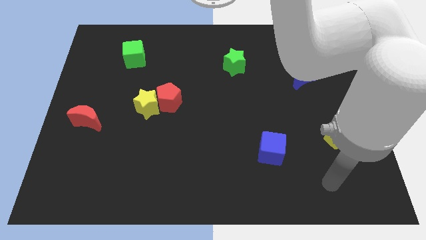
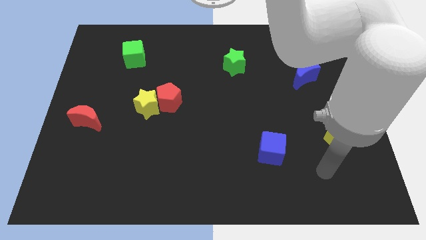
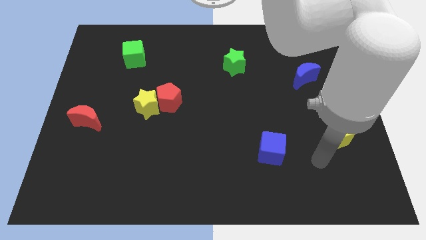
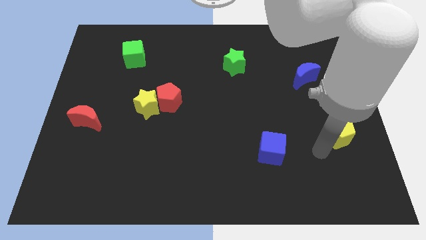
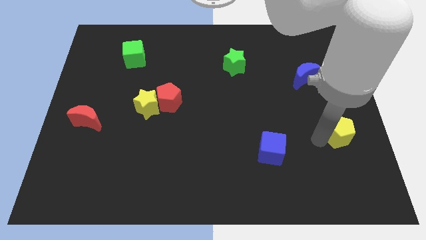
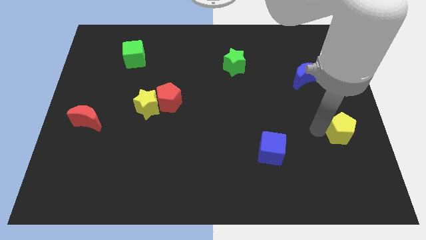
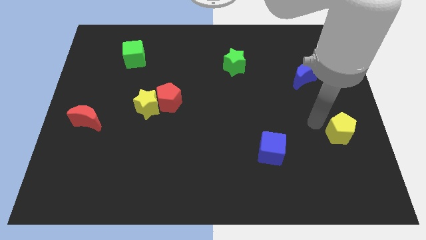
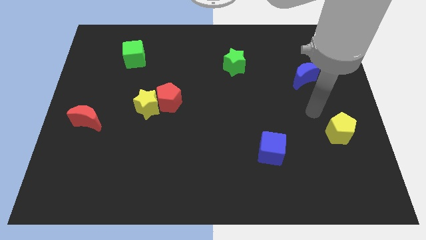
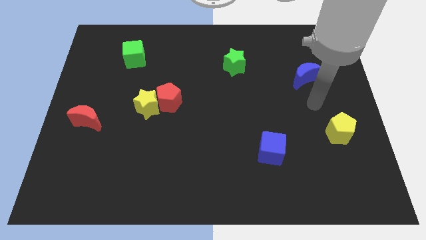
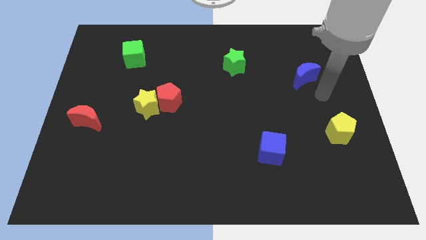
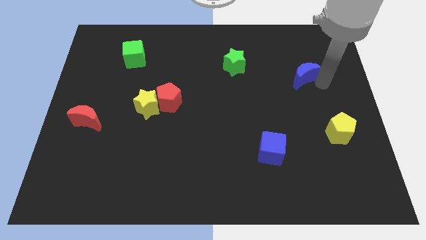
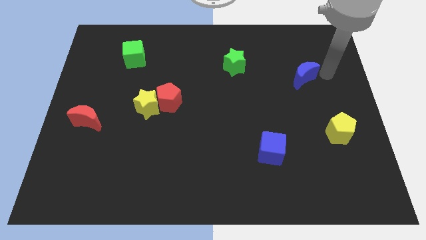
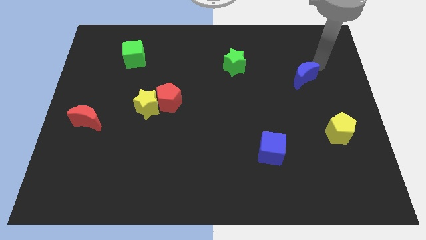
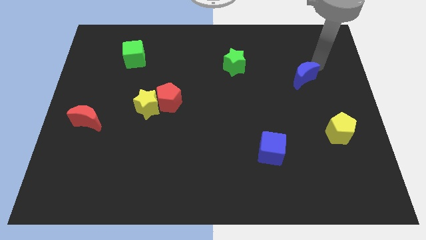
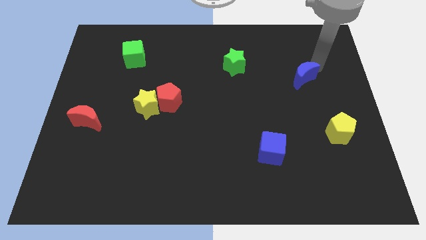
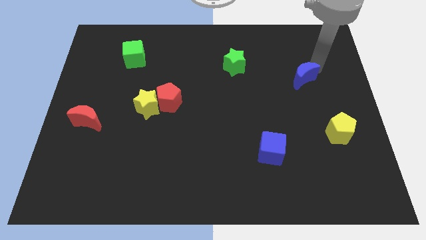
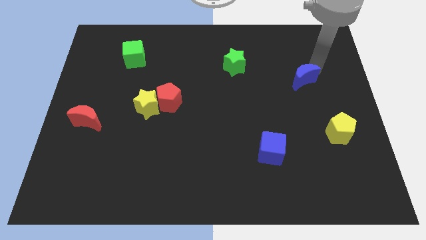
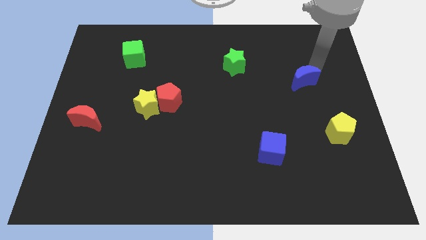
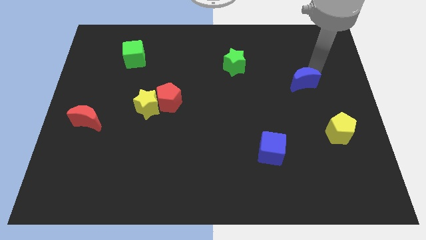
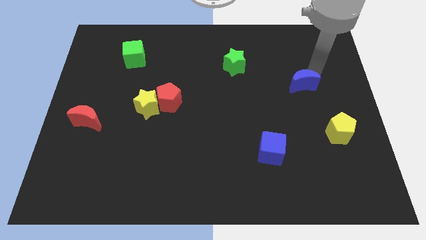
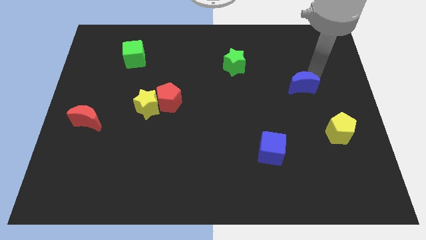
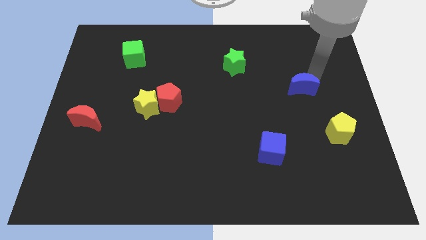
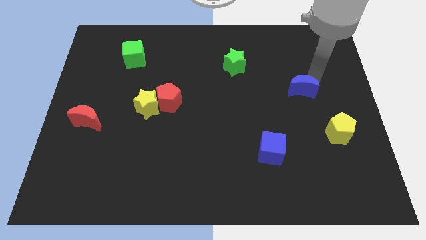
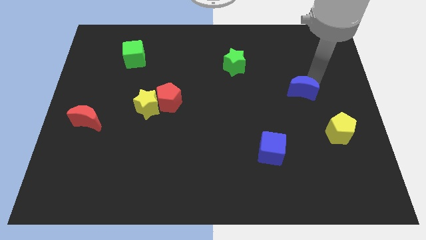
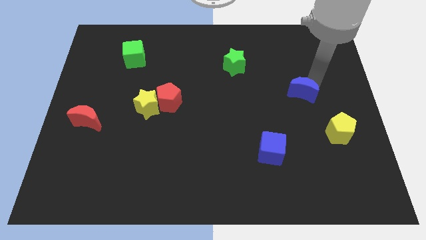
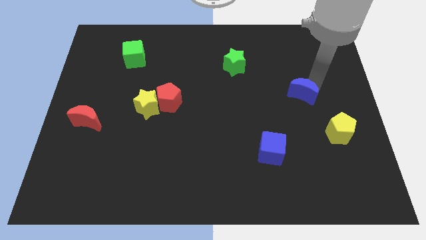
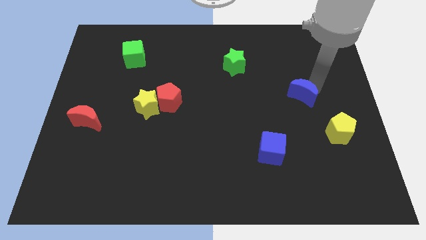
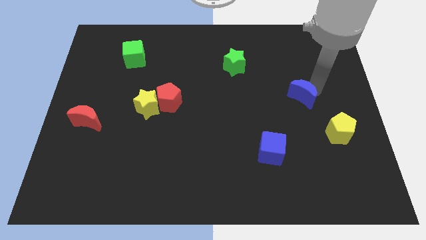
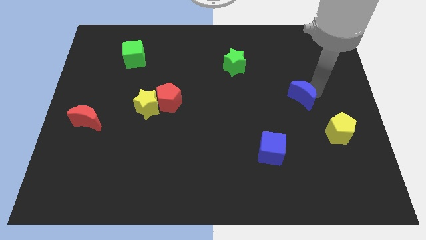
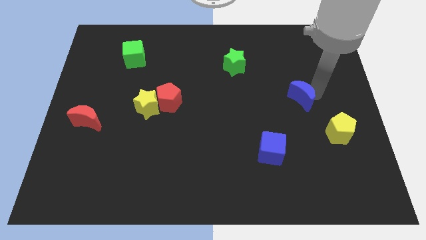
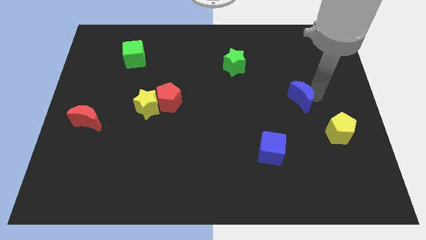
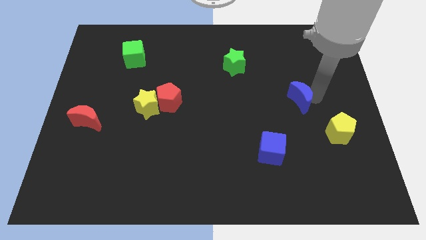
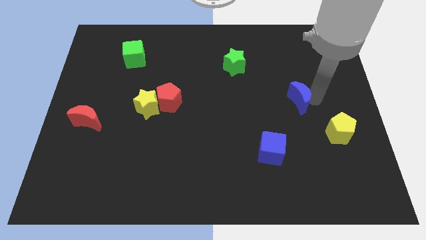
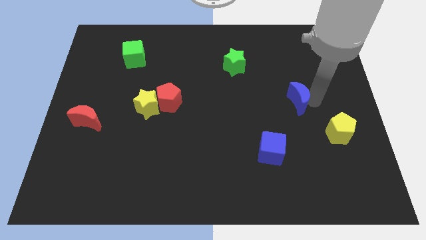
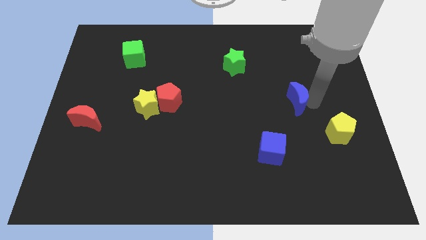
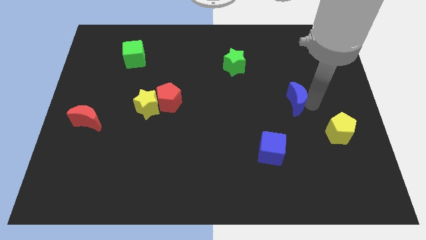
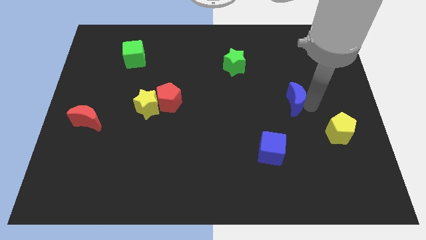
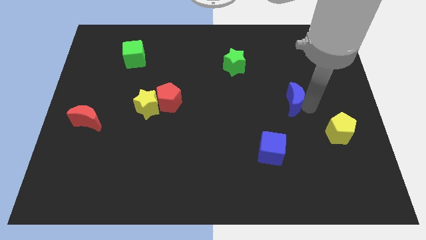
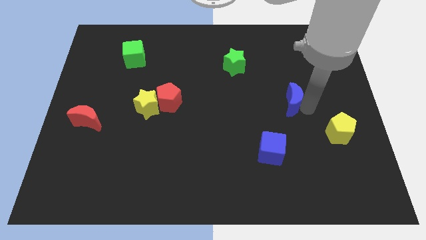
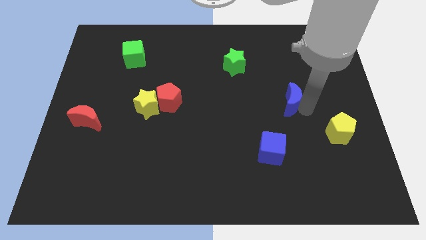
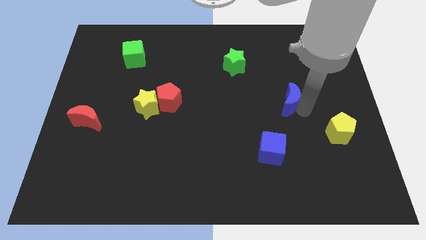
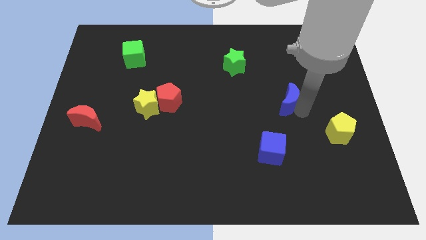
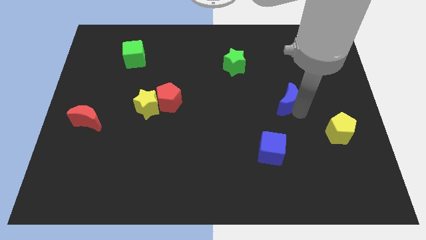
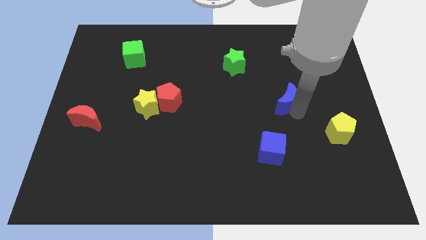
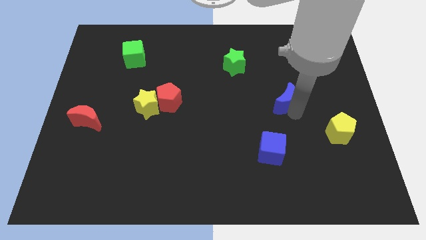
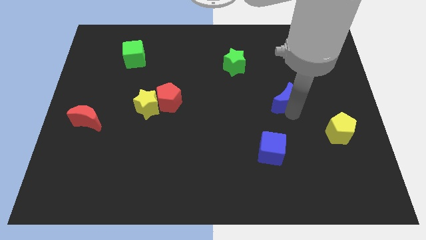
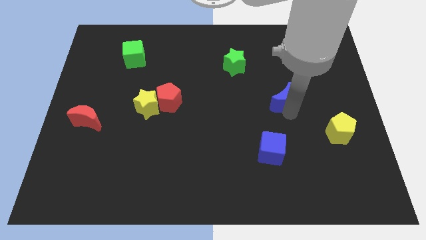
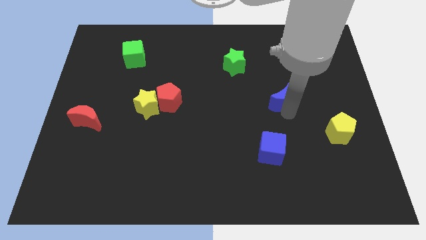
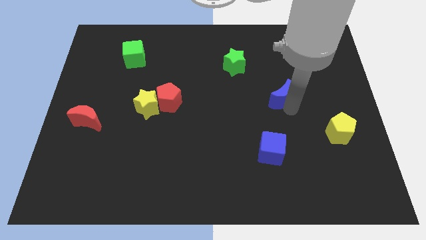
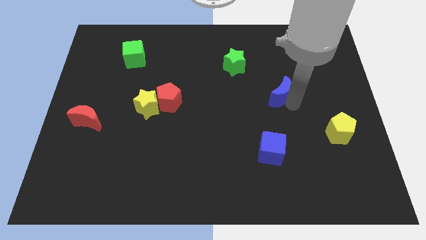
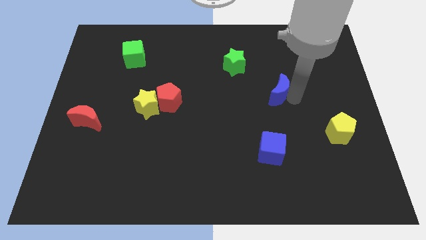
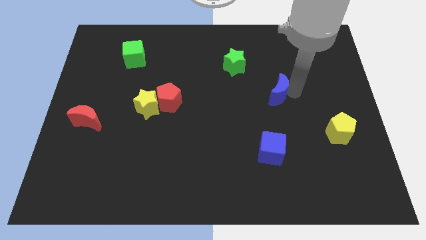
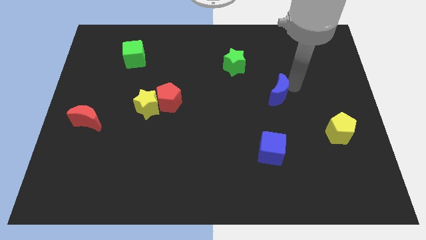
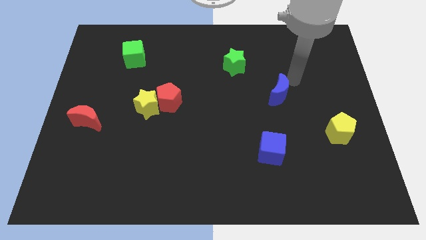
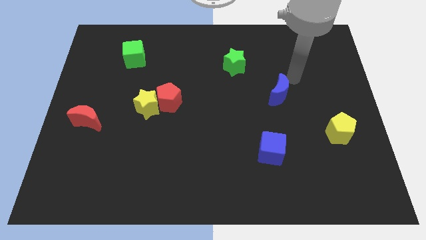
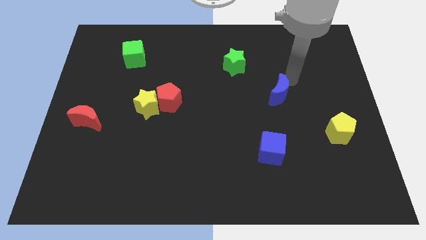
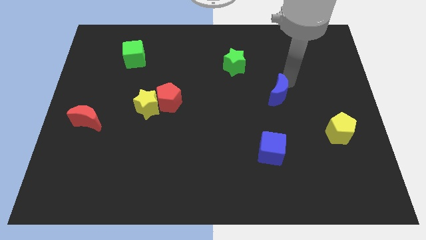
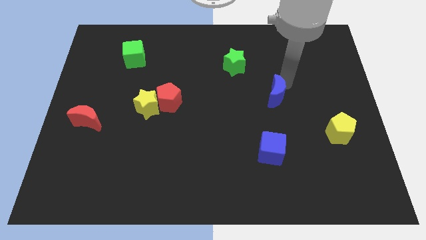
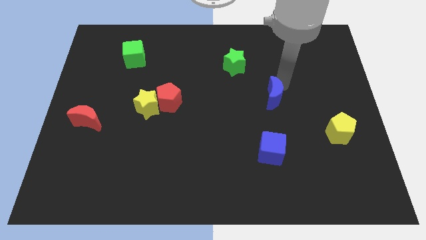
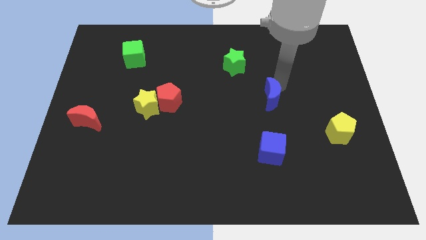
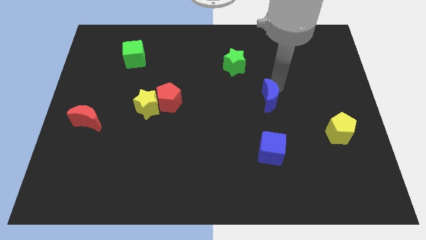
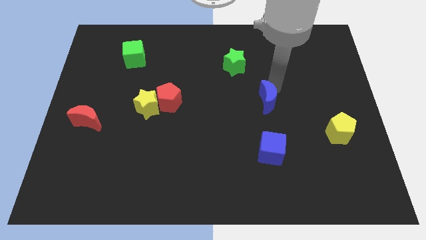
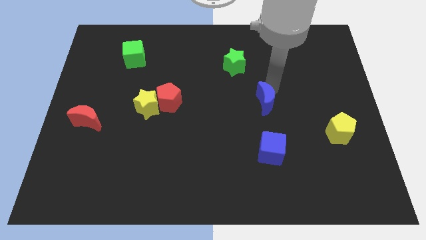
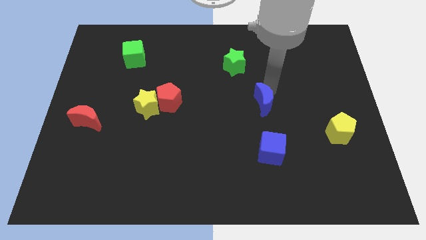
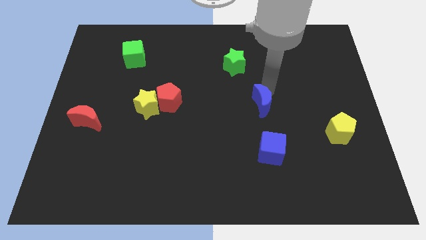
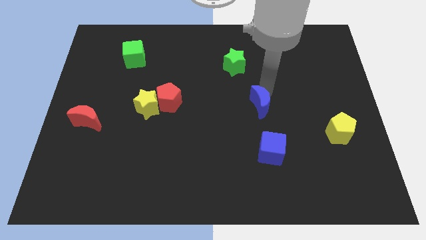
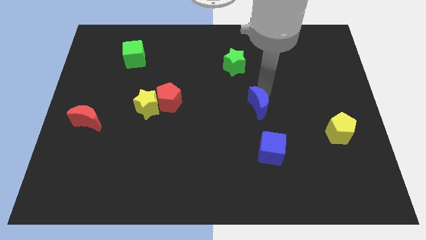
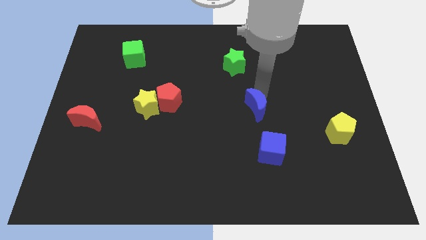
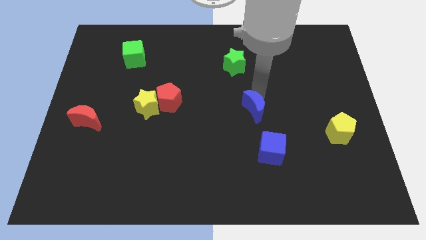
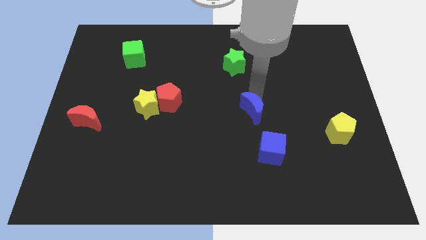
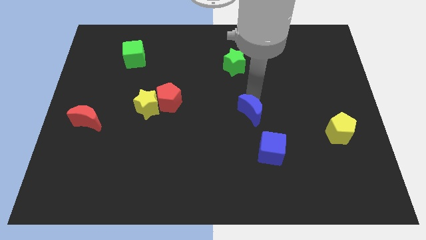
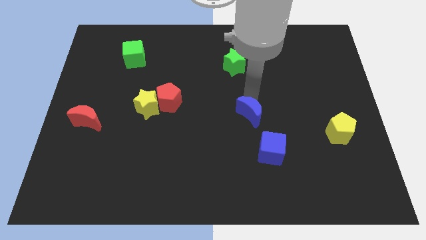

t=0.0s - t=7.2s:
push the blue moon diagonally up and to the left of the blue cube

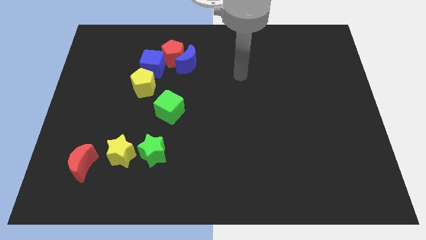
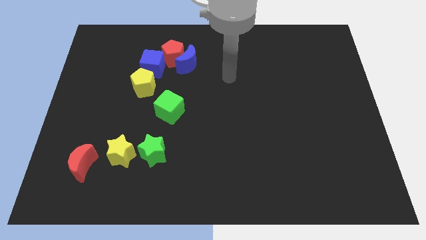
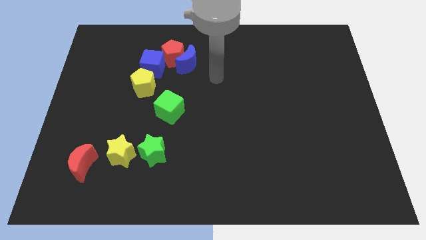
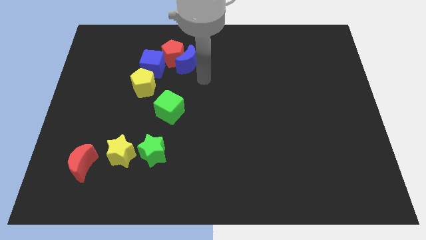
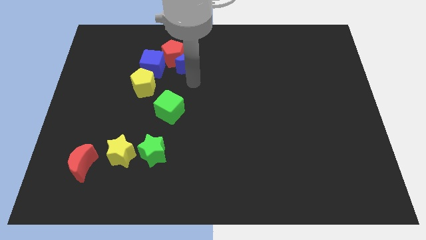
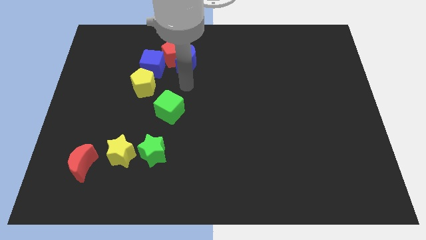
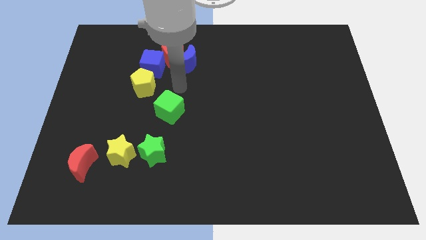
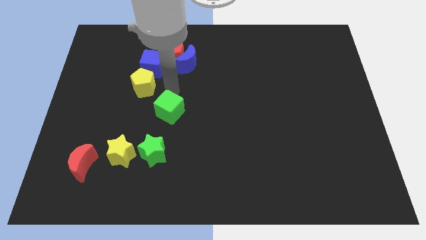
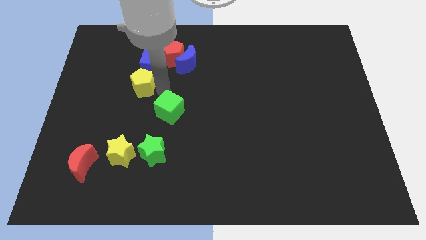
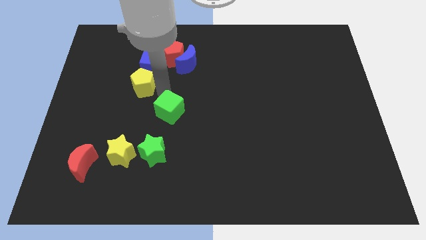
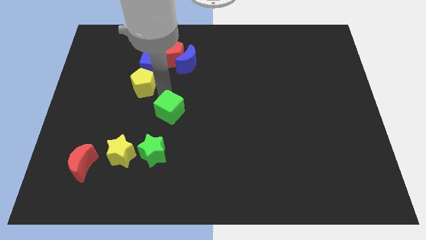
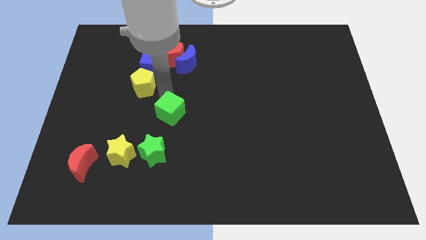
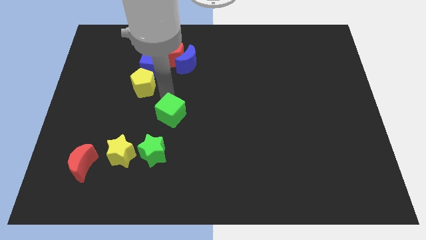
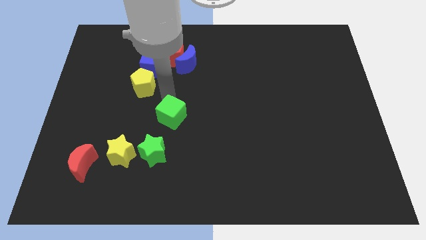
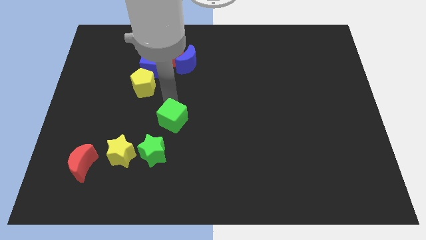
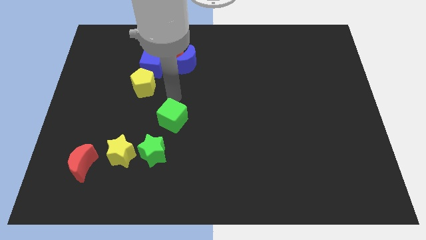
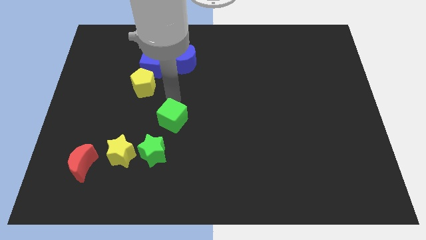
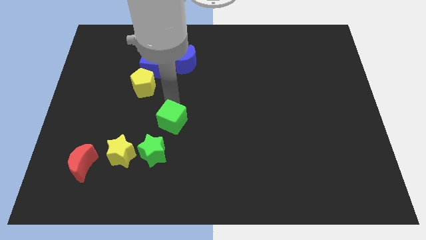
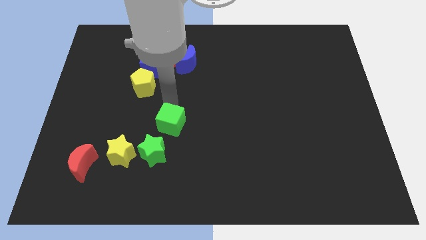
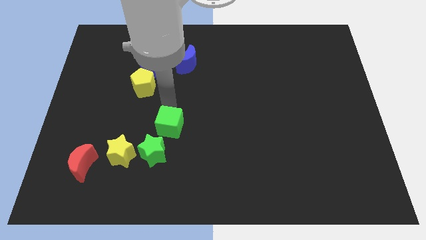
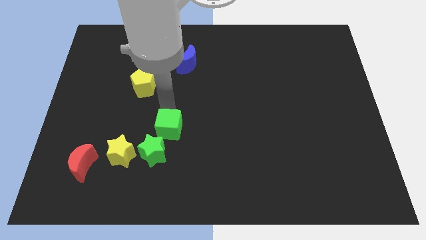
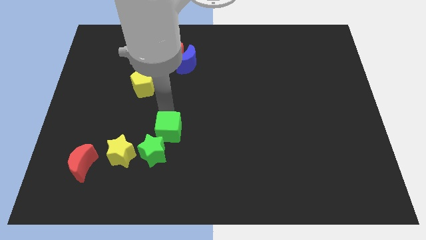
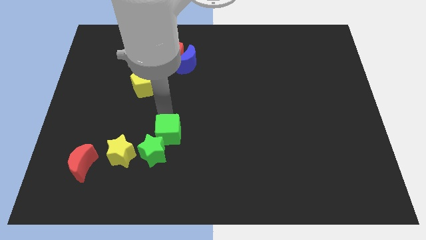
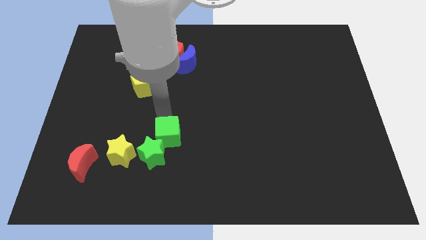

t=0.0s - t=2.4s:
move the green cube just right of the yellow star
